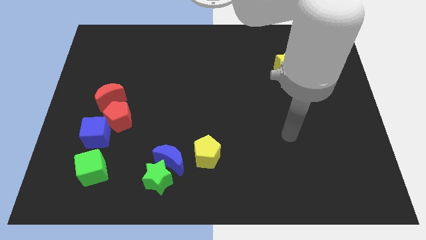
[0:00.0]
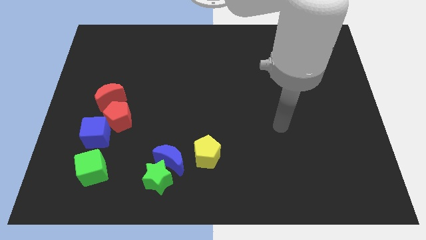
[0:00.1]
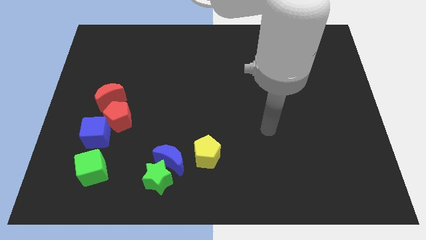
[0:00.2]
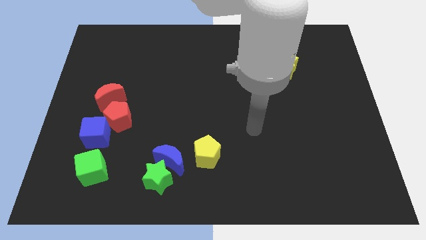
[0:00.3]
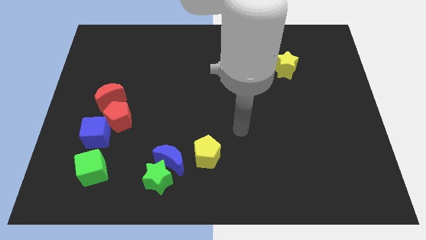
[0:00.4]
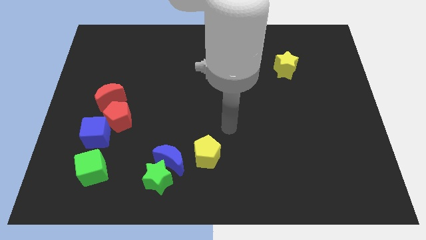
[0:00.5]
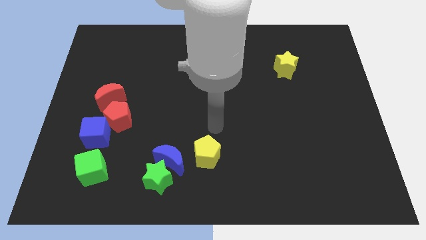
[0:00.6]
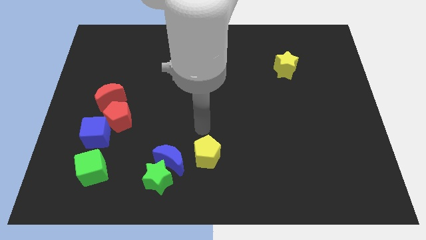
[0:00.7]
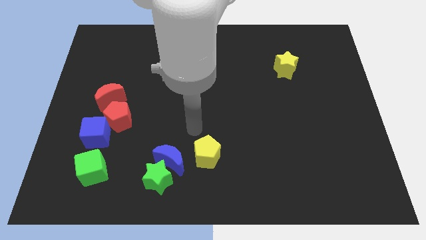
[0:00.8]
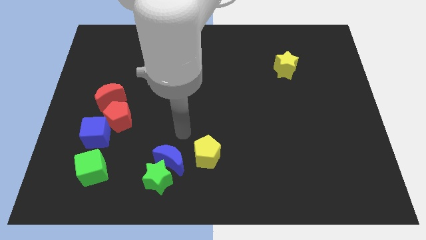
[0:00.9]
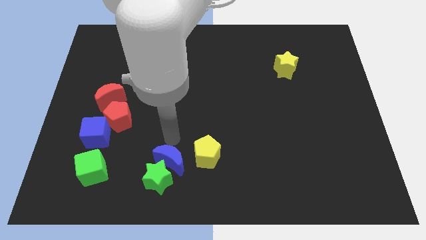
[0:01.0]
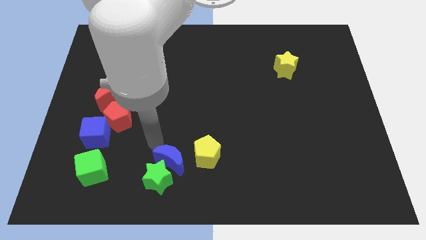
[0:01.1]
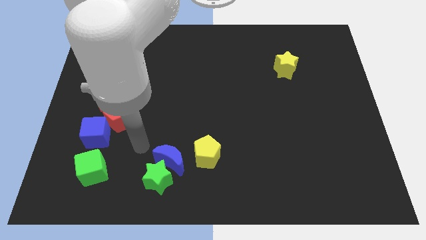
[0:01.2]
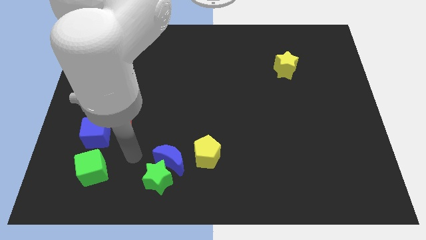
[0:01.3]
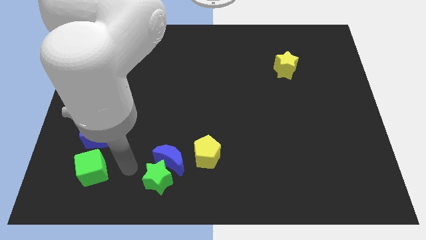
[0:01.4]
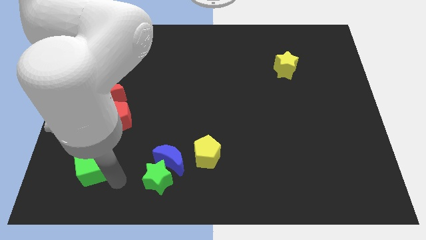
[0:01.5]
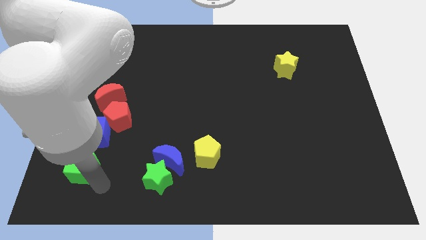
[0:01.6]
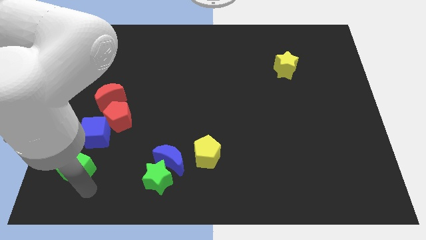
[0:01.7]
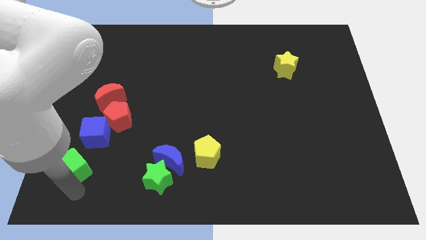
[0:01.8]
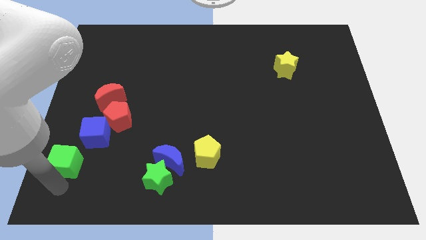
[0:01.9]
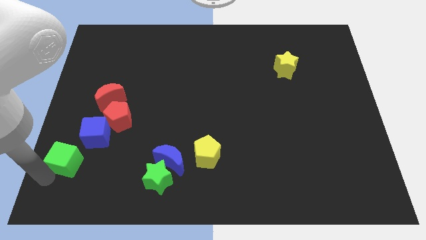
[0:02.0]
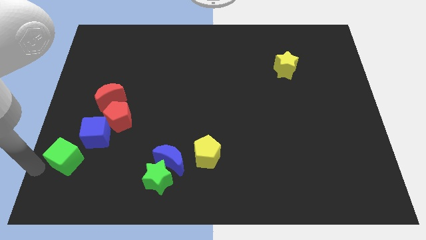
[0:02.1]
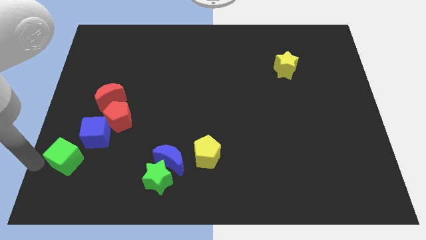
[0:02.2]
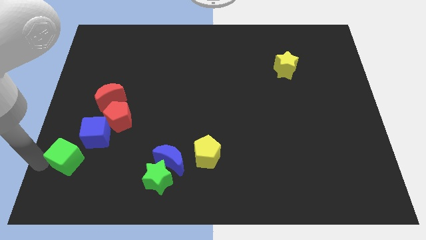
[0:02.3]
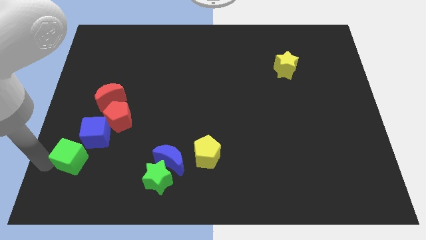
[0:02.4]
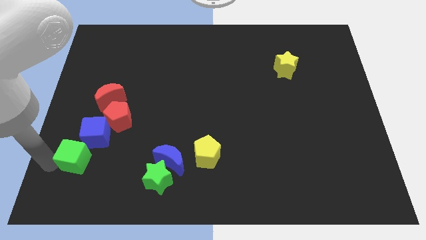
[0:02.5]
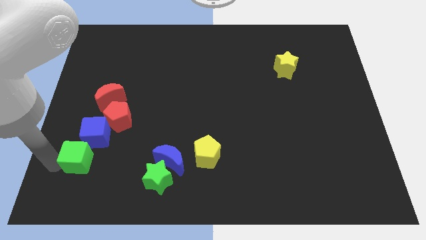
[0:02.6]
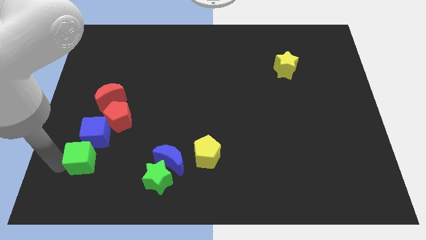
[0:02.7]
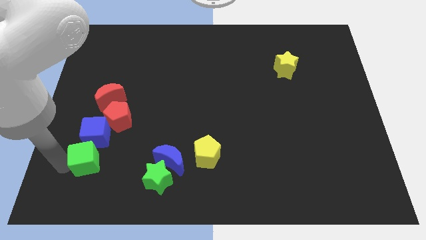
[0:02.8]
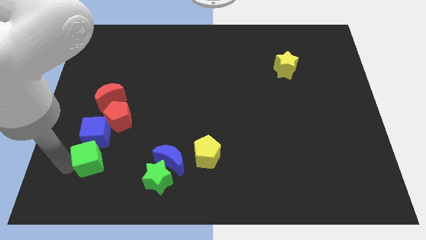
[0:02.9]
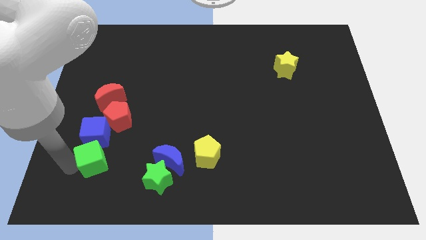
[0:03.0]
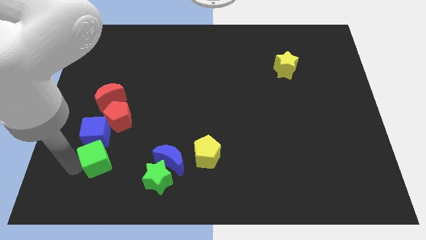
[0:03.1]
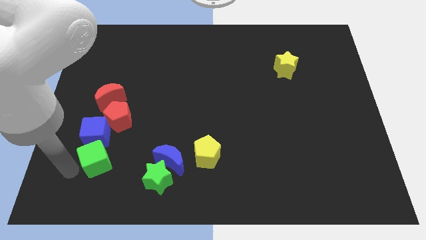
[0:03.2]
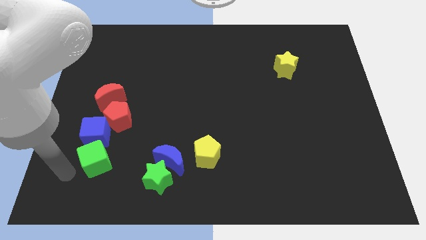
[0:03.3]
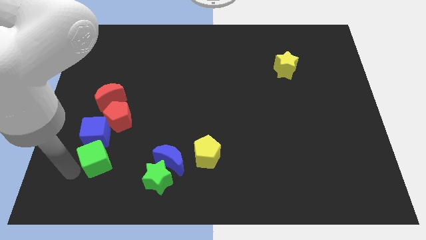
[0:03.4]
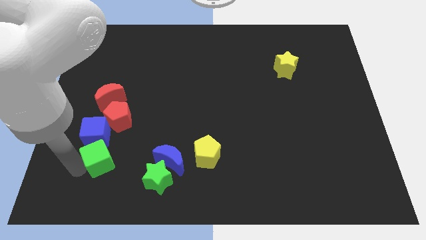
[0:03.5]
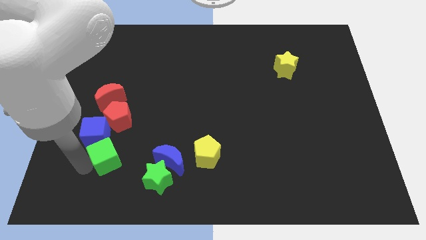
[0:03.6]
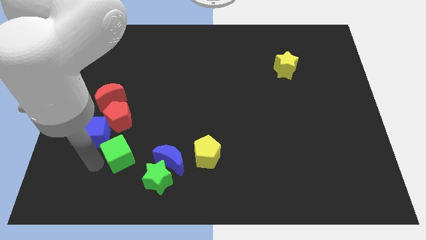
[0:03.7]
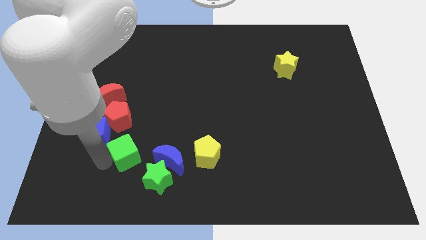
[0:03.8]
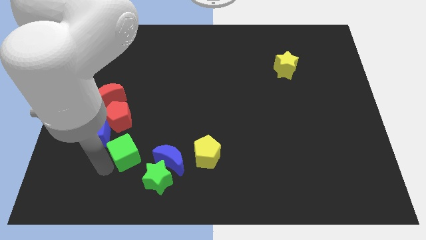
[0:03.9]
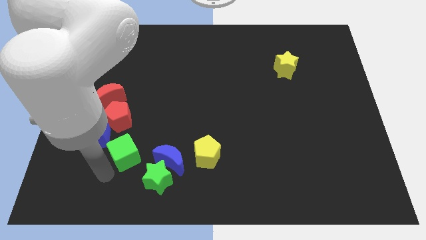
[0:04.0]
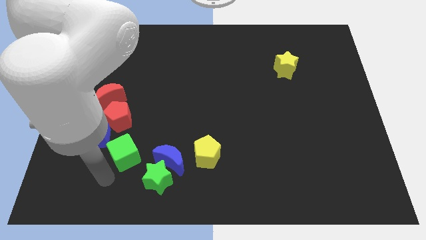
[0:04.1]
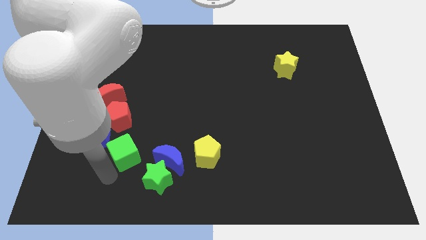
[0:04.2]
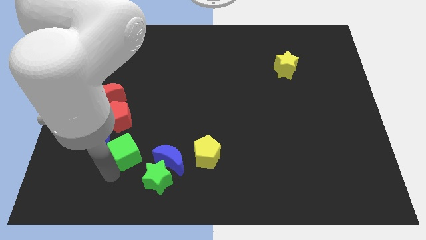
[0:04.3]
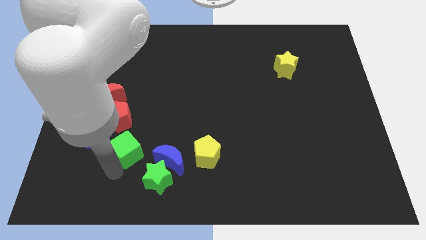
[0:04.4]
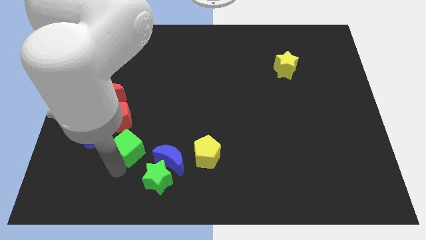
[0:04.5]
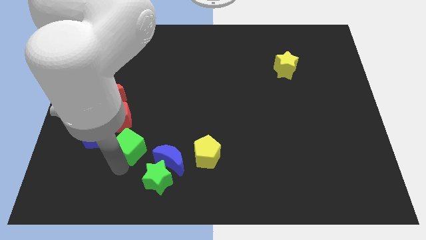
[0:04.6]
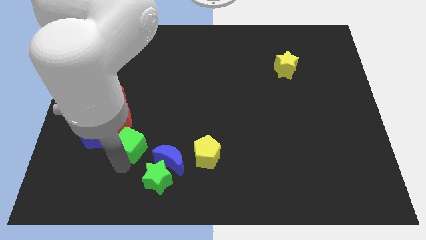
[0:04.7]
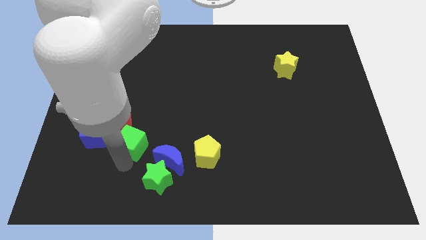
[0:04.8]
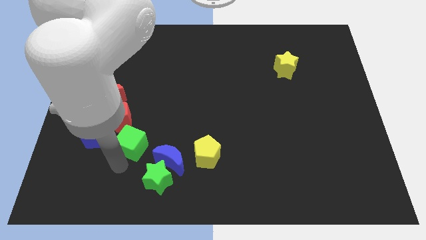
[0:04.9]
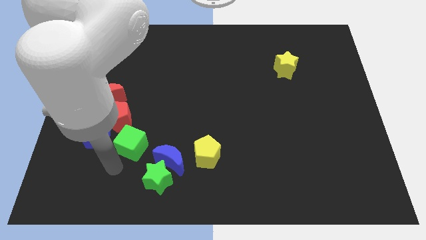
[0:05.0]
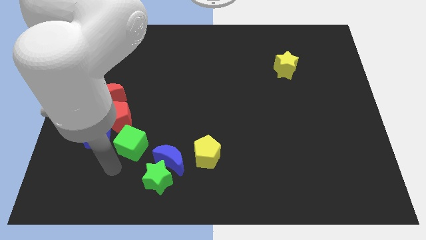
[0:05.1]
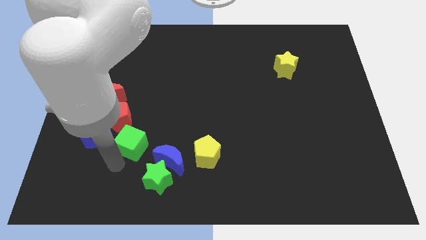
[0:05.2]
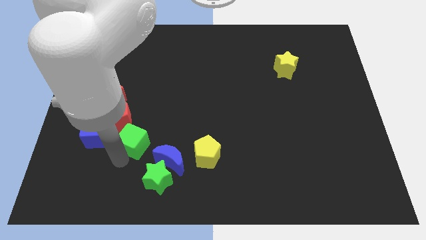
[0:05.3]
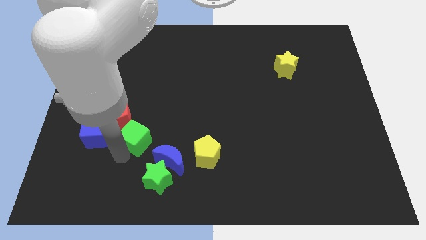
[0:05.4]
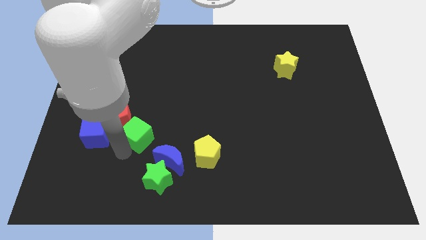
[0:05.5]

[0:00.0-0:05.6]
push the green cube just right of the red pentagon

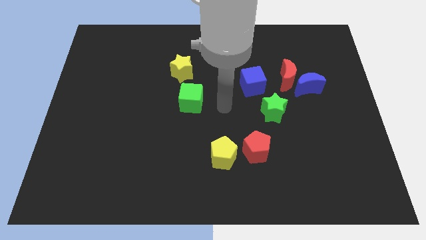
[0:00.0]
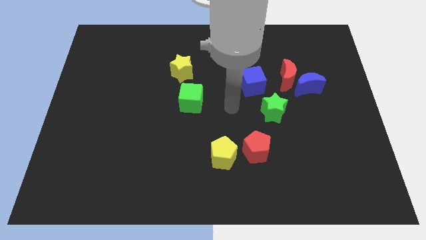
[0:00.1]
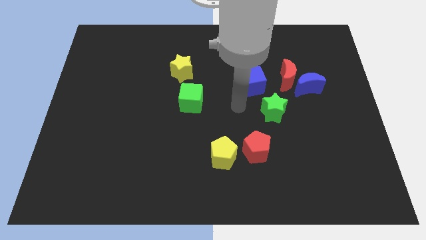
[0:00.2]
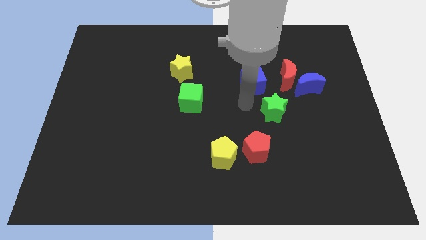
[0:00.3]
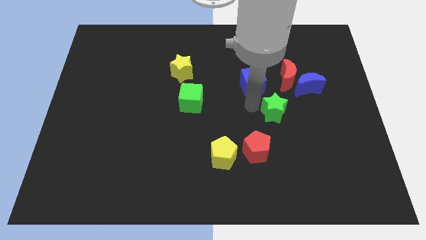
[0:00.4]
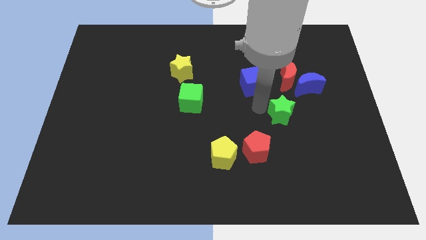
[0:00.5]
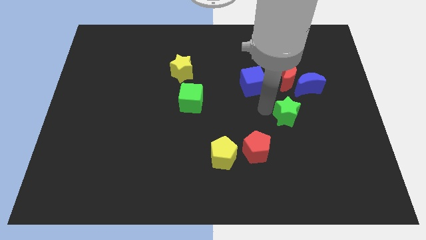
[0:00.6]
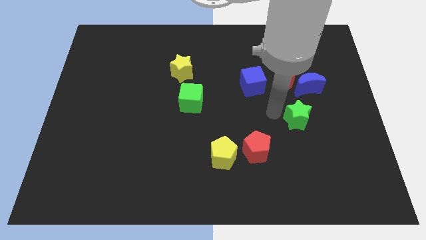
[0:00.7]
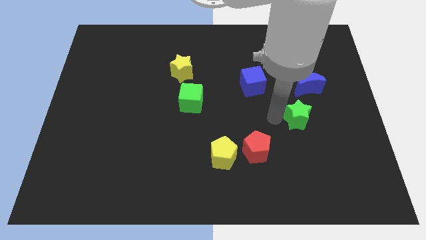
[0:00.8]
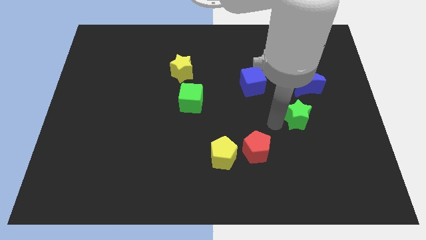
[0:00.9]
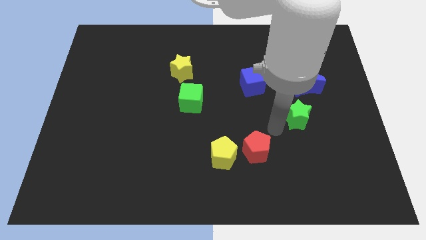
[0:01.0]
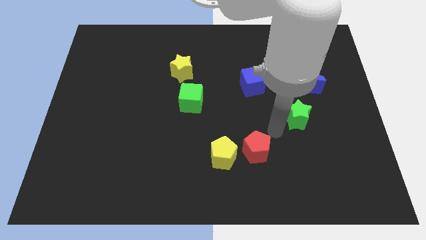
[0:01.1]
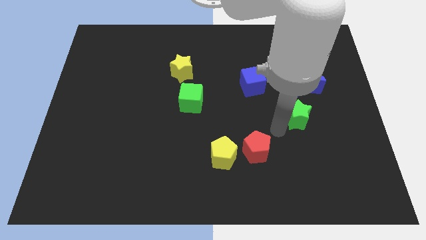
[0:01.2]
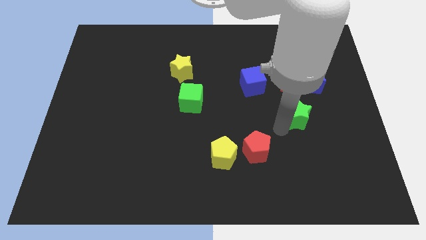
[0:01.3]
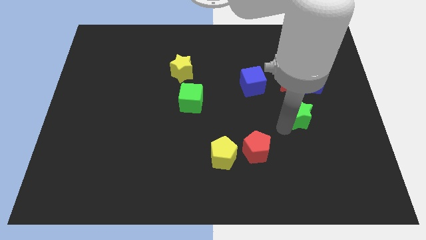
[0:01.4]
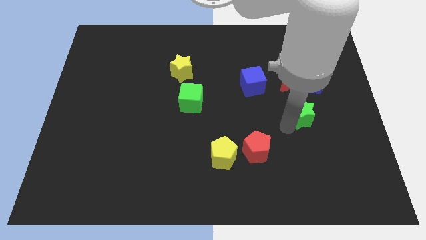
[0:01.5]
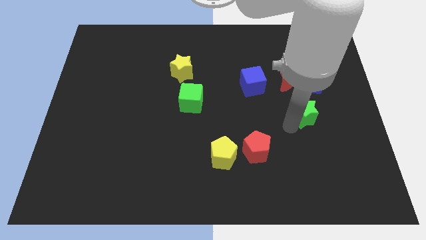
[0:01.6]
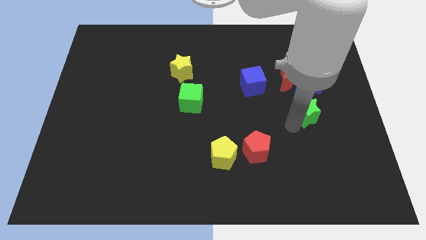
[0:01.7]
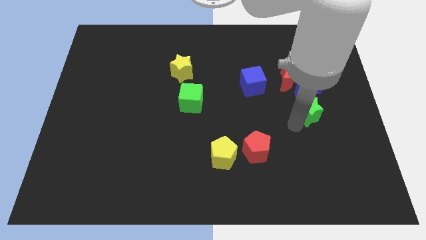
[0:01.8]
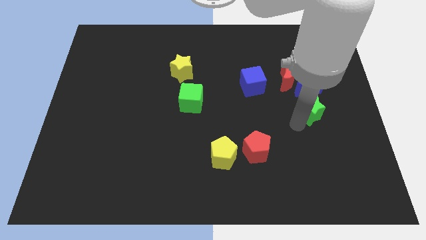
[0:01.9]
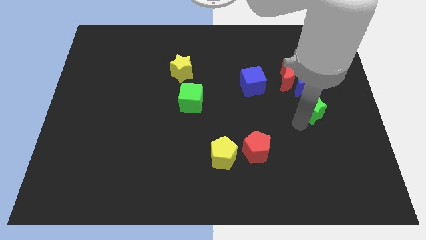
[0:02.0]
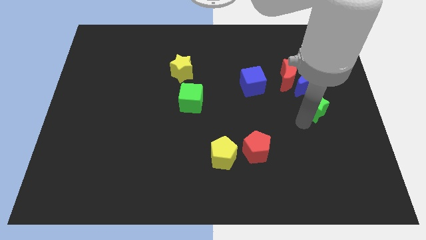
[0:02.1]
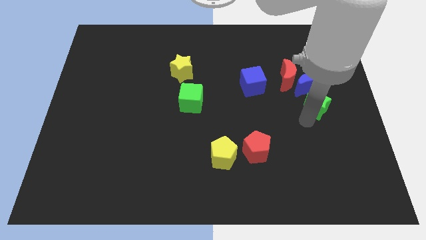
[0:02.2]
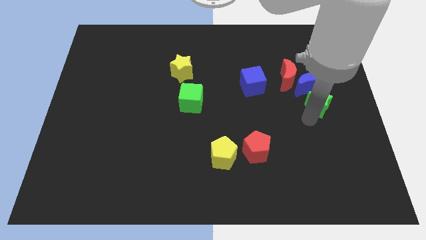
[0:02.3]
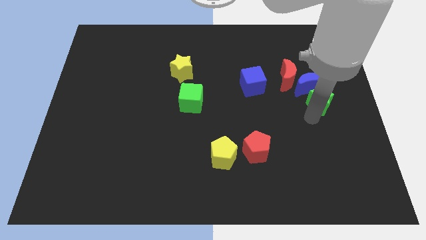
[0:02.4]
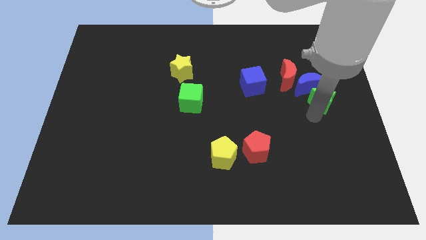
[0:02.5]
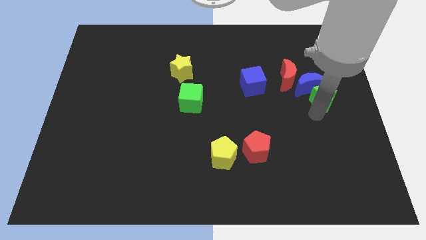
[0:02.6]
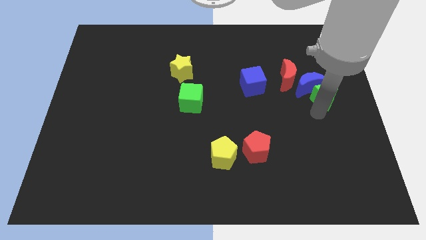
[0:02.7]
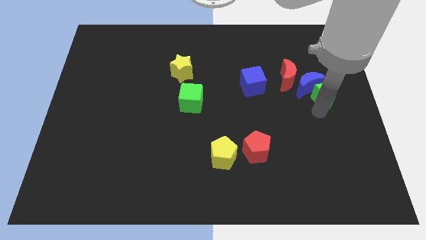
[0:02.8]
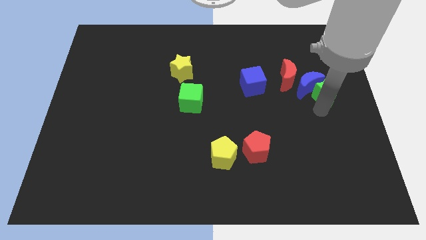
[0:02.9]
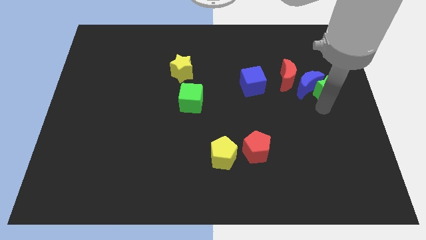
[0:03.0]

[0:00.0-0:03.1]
slide the green star diagonally up and to the right of the blue moon
